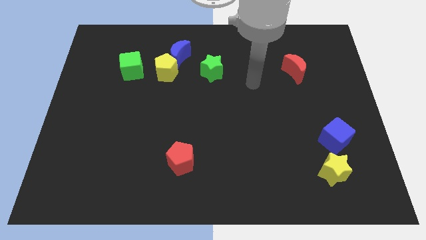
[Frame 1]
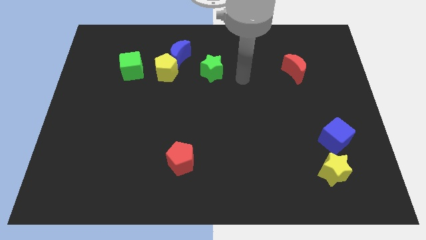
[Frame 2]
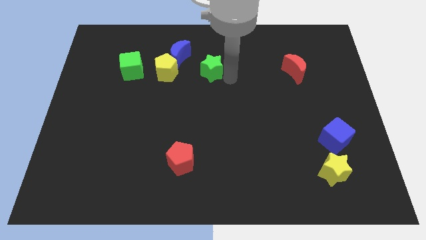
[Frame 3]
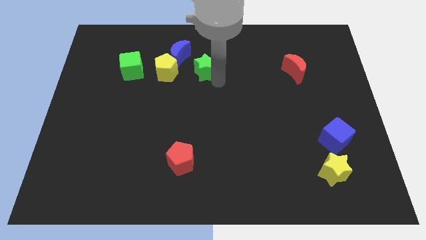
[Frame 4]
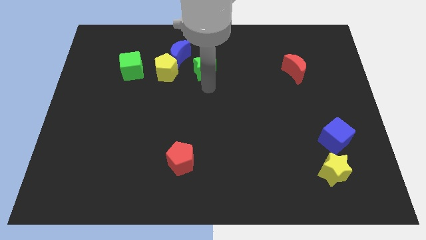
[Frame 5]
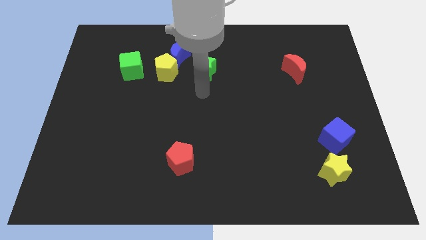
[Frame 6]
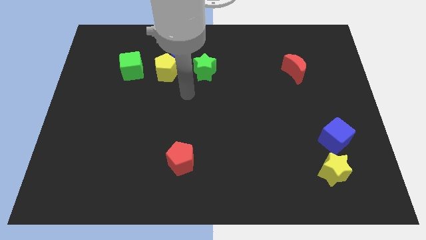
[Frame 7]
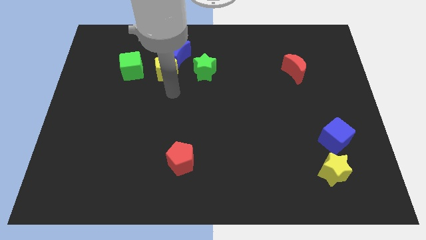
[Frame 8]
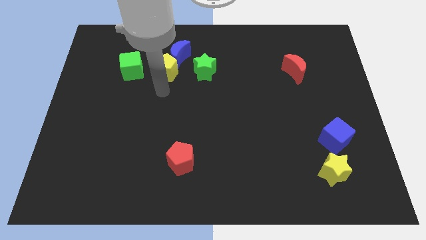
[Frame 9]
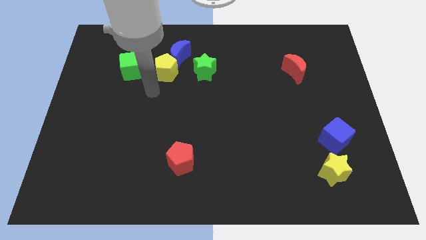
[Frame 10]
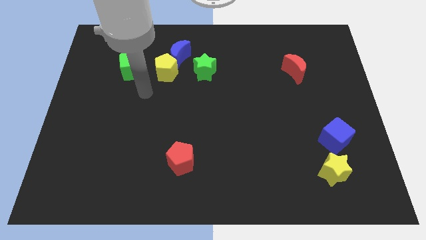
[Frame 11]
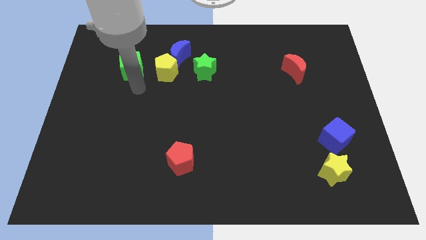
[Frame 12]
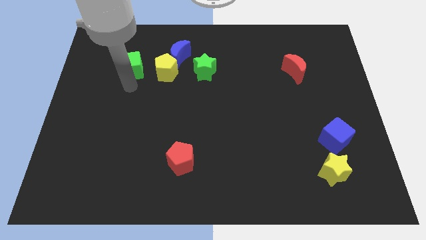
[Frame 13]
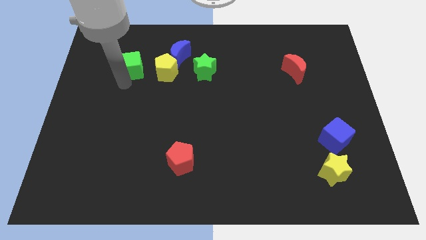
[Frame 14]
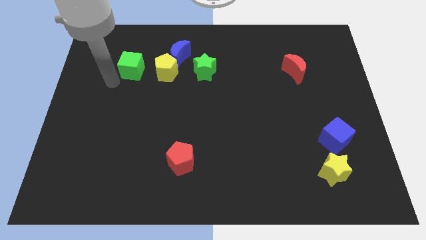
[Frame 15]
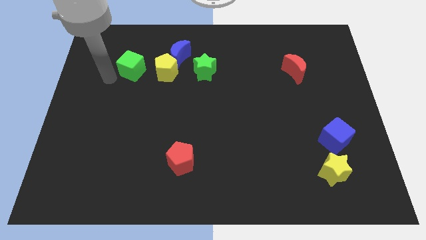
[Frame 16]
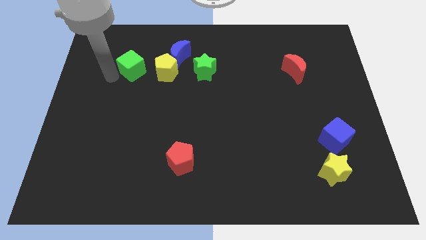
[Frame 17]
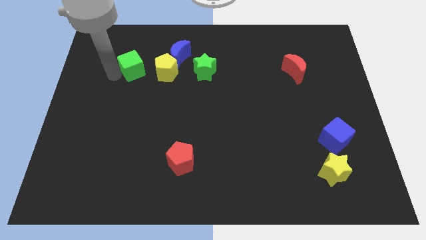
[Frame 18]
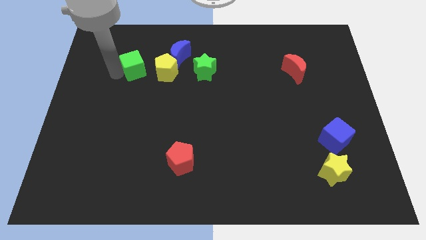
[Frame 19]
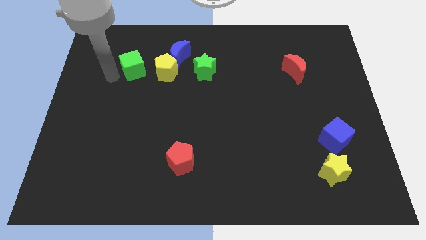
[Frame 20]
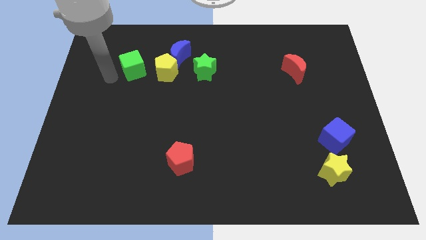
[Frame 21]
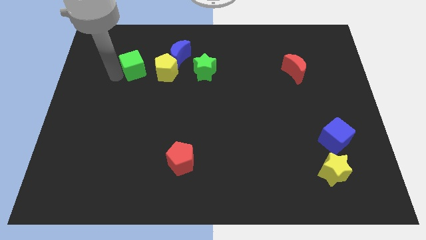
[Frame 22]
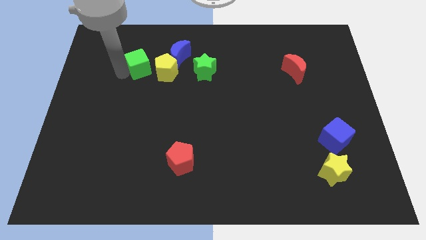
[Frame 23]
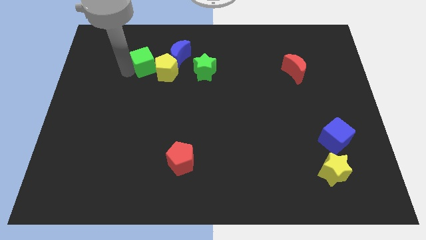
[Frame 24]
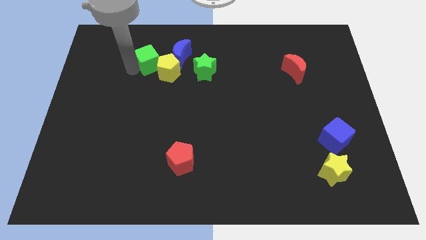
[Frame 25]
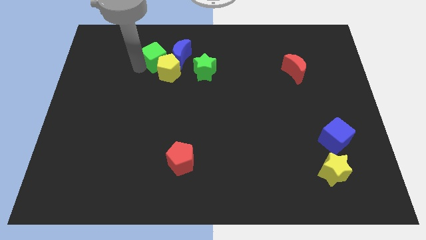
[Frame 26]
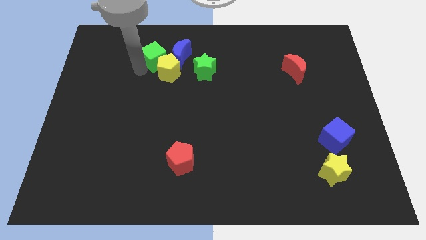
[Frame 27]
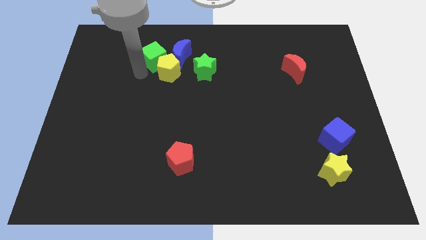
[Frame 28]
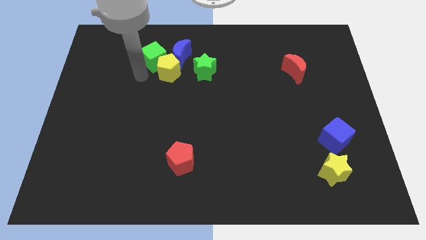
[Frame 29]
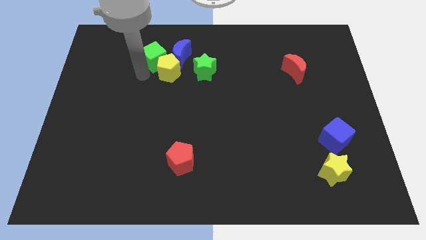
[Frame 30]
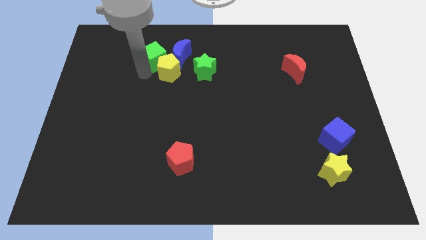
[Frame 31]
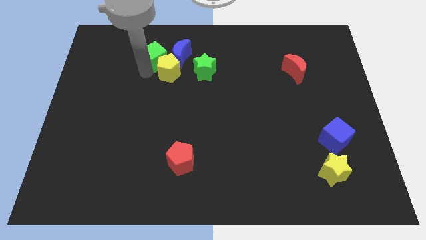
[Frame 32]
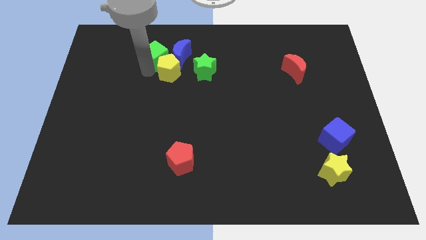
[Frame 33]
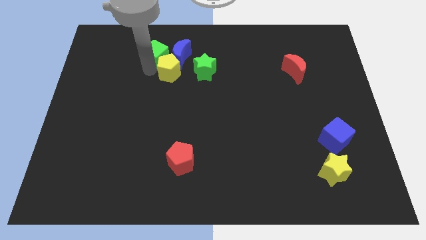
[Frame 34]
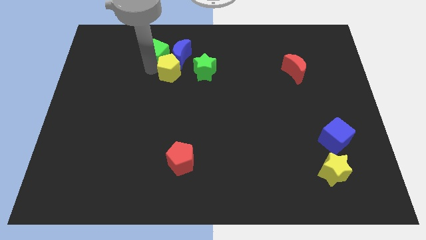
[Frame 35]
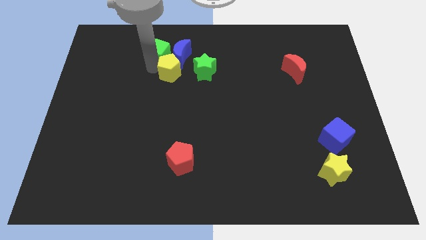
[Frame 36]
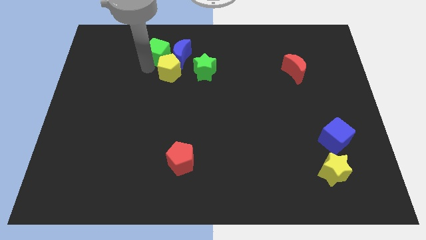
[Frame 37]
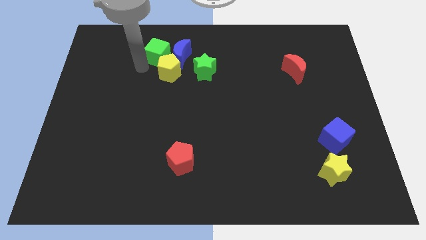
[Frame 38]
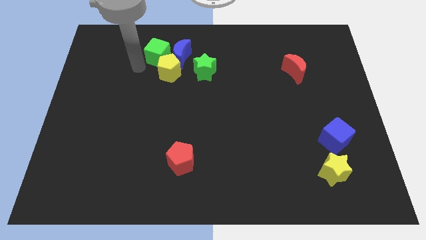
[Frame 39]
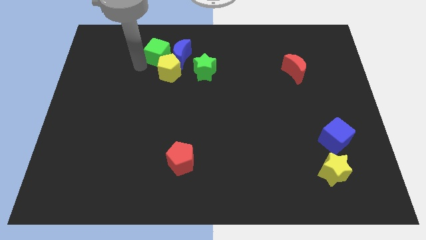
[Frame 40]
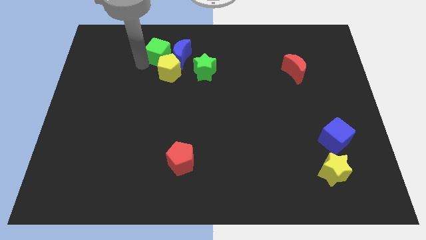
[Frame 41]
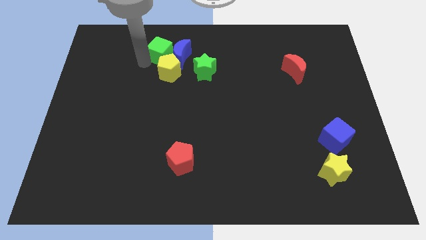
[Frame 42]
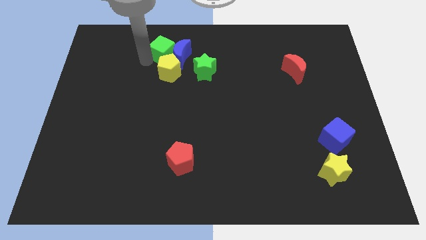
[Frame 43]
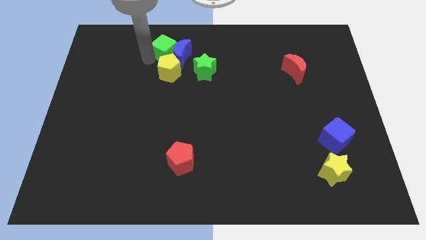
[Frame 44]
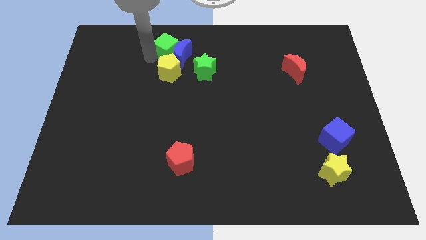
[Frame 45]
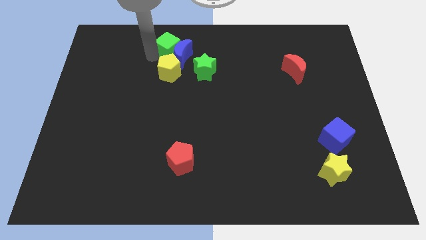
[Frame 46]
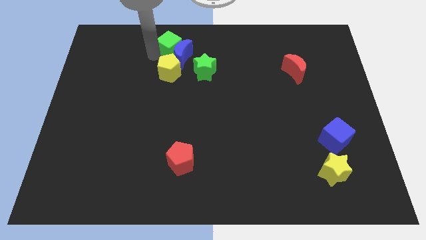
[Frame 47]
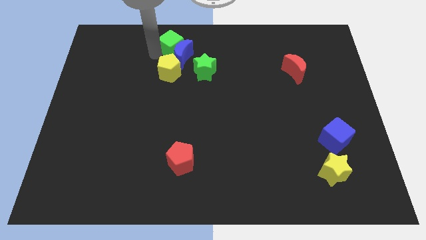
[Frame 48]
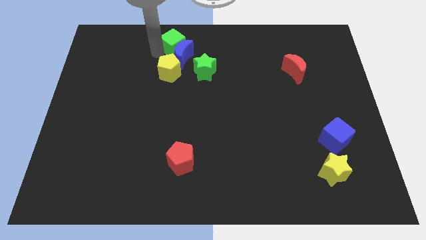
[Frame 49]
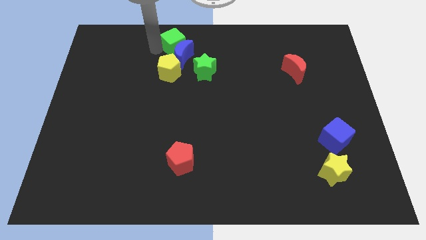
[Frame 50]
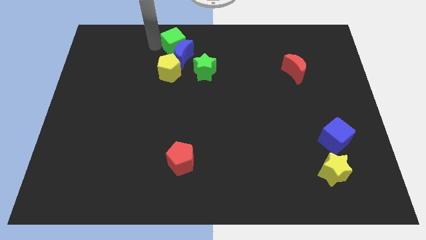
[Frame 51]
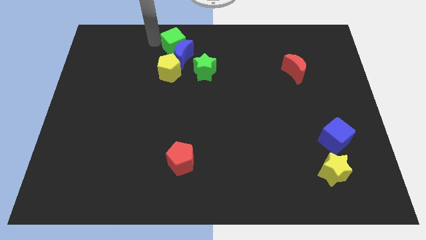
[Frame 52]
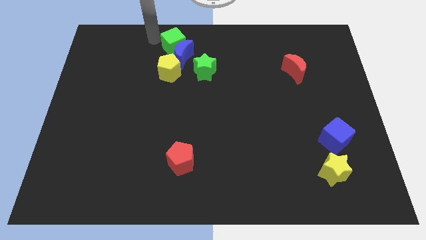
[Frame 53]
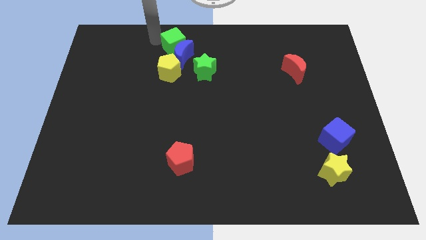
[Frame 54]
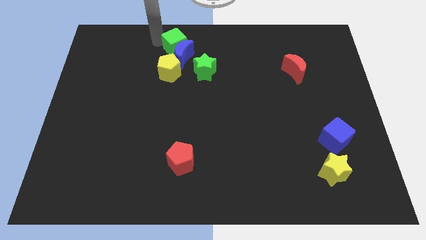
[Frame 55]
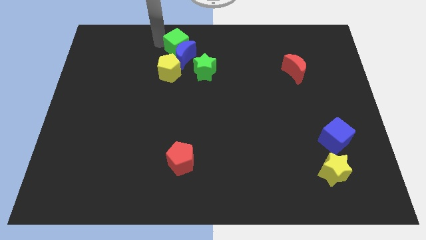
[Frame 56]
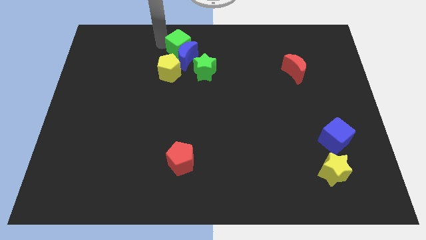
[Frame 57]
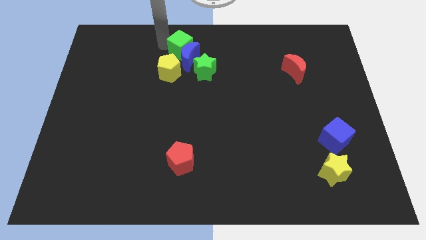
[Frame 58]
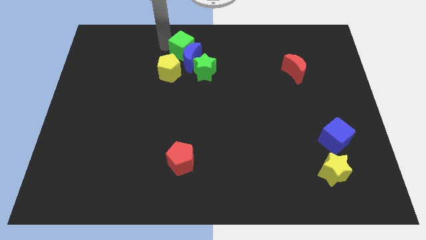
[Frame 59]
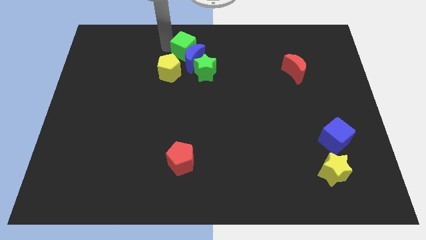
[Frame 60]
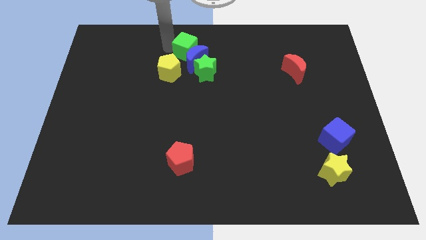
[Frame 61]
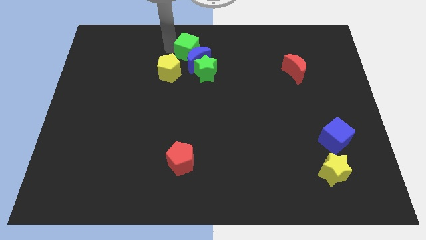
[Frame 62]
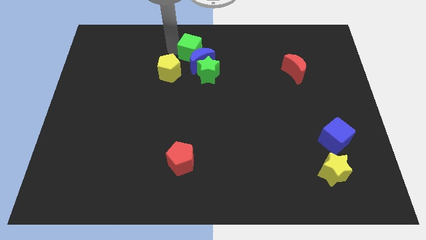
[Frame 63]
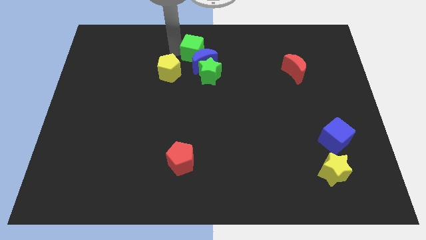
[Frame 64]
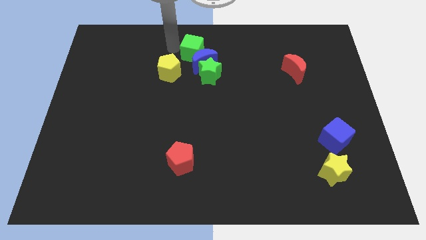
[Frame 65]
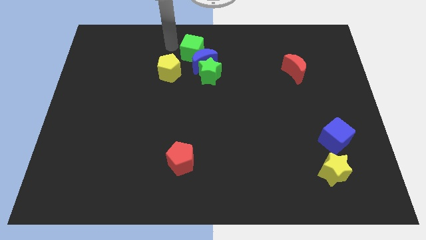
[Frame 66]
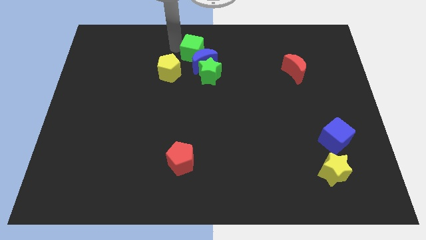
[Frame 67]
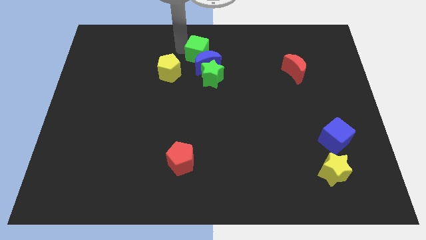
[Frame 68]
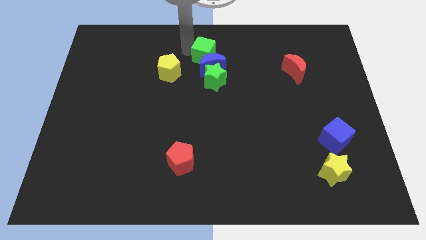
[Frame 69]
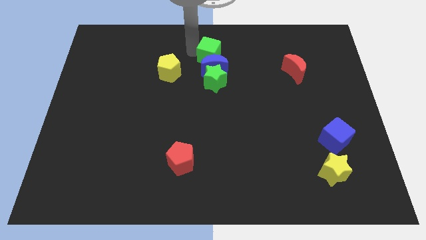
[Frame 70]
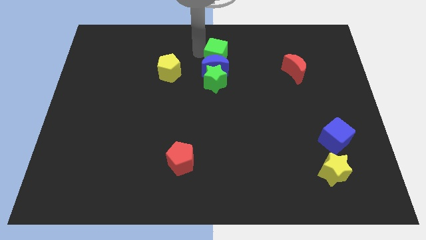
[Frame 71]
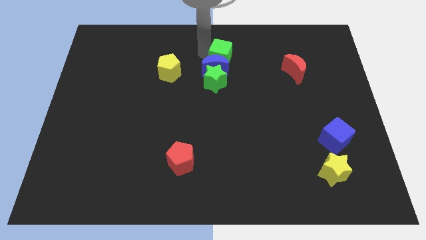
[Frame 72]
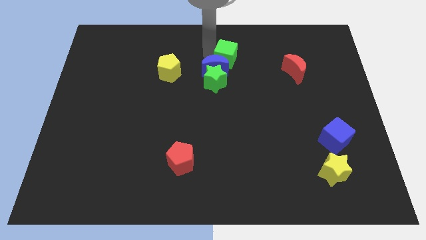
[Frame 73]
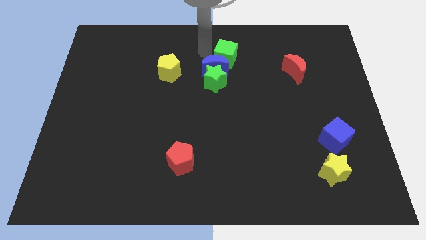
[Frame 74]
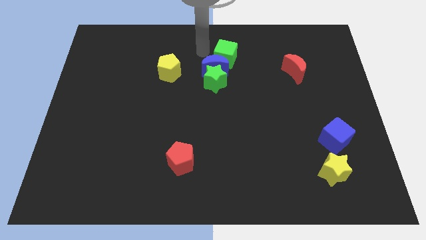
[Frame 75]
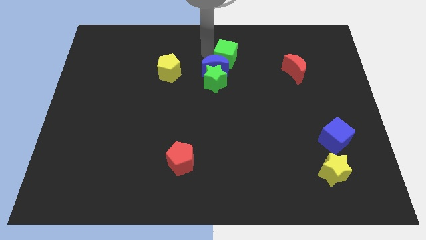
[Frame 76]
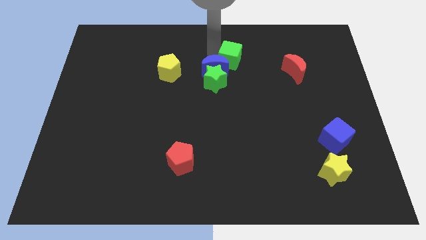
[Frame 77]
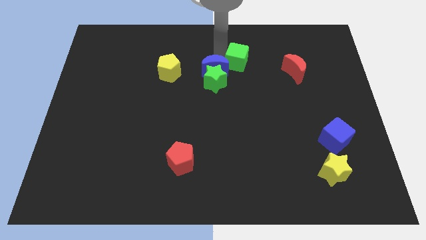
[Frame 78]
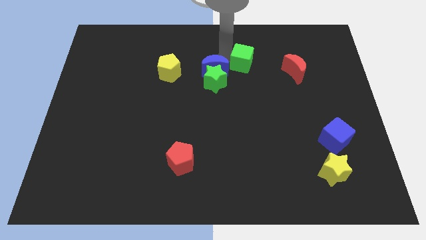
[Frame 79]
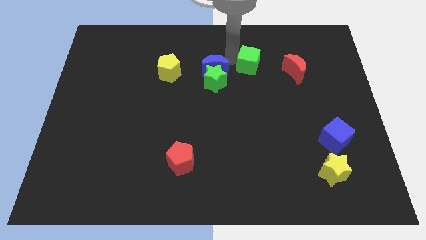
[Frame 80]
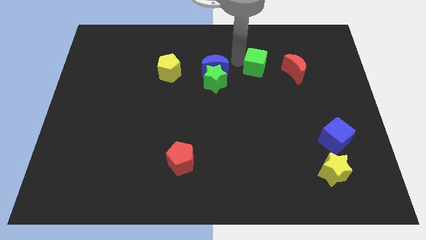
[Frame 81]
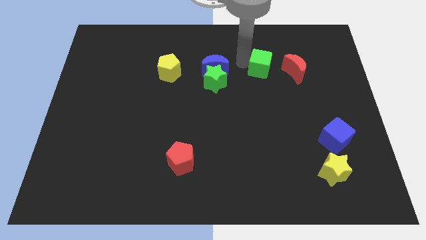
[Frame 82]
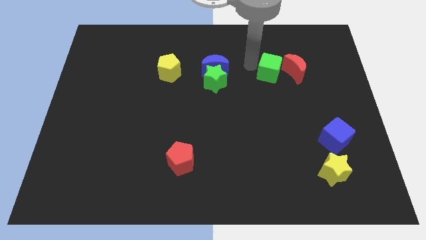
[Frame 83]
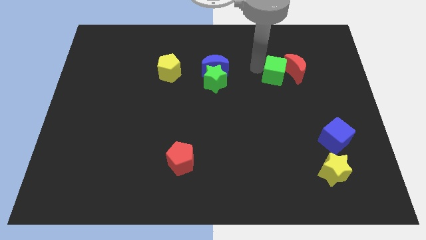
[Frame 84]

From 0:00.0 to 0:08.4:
move the green cube to the red moon

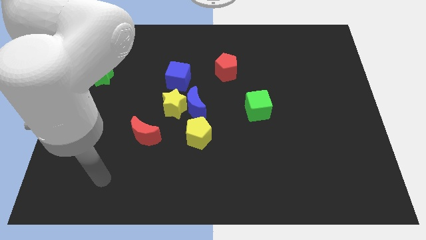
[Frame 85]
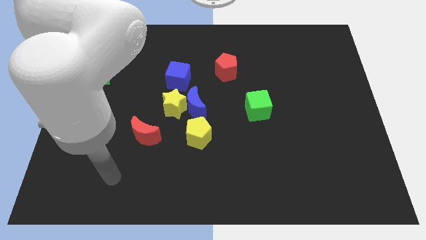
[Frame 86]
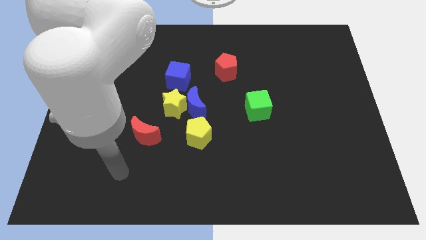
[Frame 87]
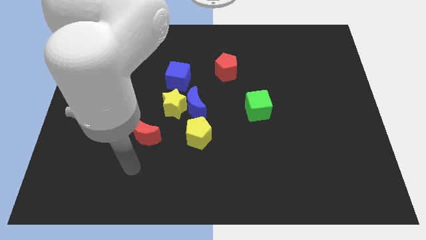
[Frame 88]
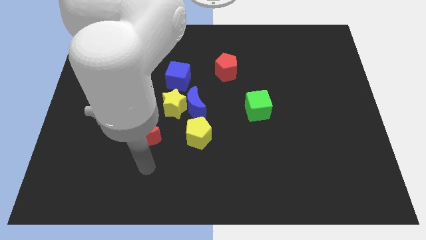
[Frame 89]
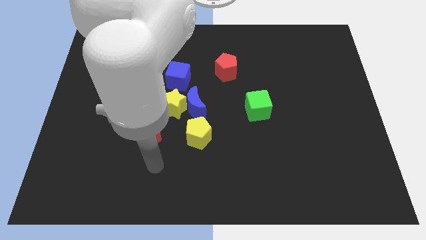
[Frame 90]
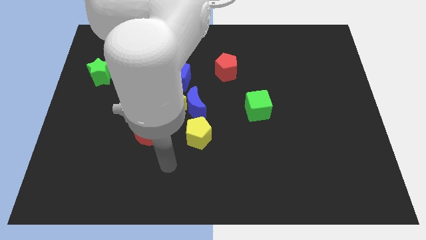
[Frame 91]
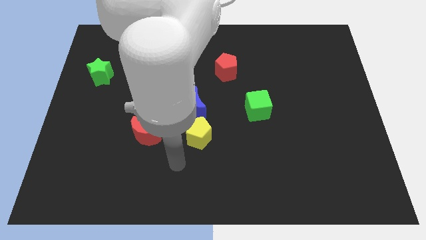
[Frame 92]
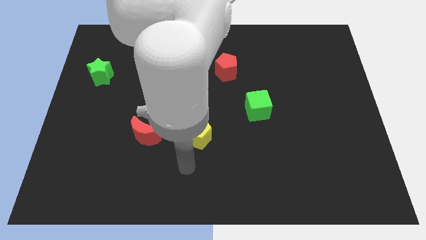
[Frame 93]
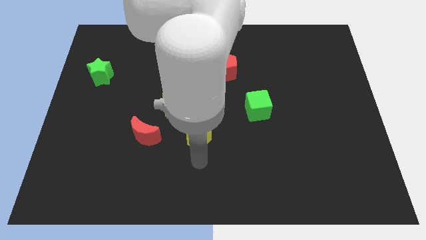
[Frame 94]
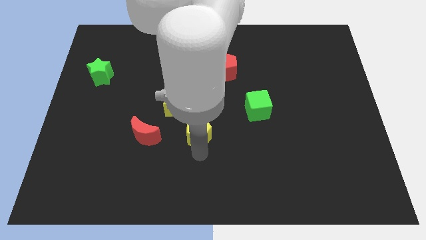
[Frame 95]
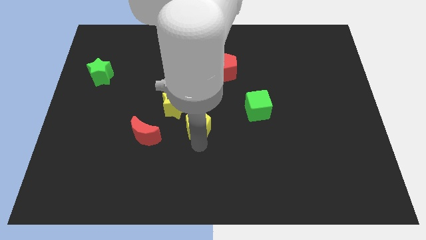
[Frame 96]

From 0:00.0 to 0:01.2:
push the yellow pentagon to the blue moon
